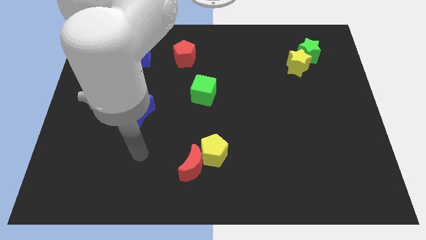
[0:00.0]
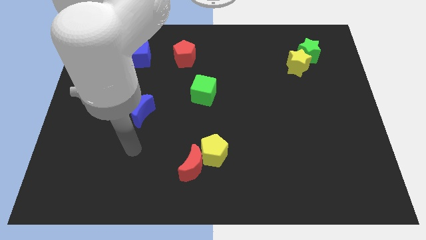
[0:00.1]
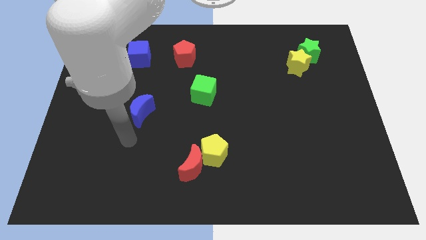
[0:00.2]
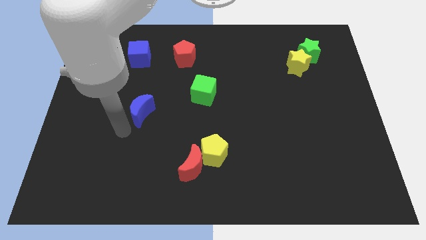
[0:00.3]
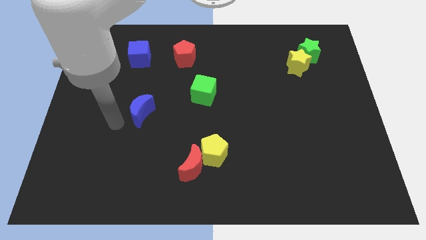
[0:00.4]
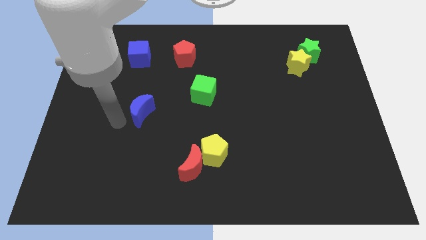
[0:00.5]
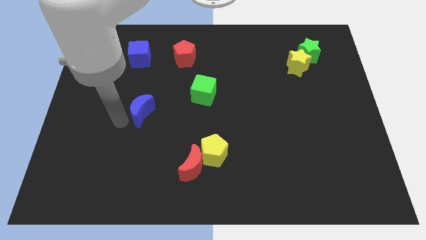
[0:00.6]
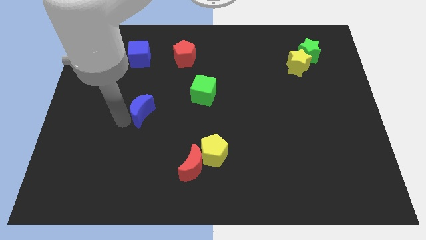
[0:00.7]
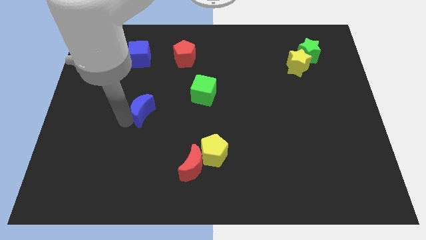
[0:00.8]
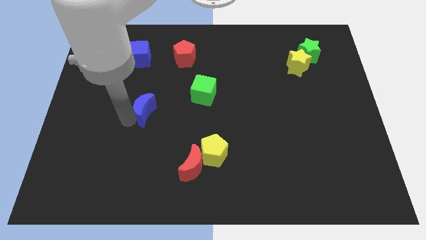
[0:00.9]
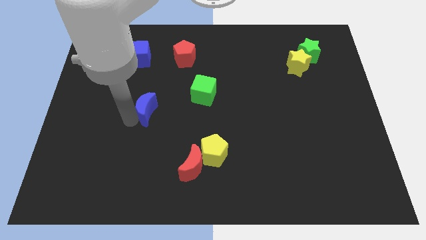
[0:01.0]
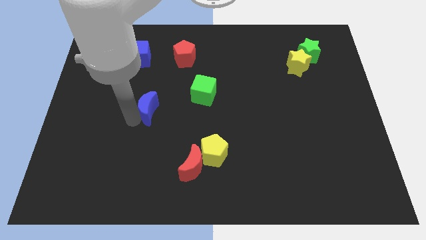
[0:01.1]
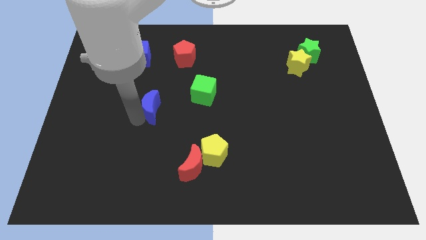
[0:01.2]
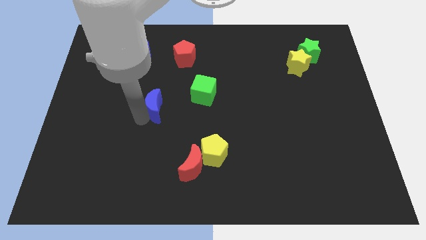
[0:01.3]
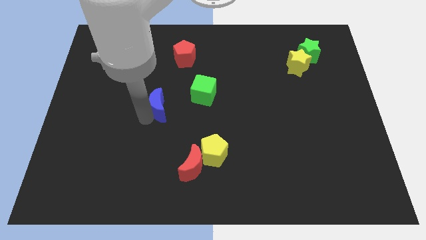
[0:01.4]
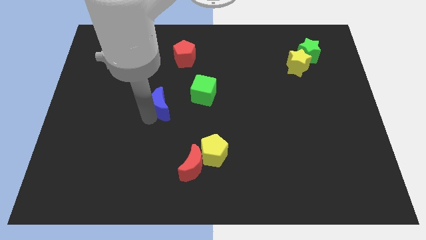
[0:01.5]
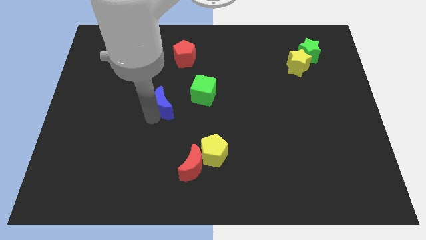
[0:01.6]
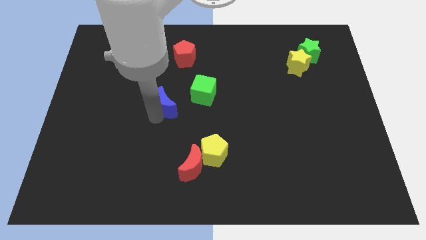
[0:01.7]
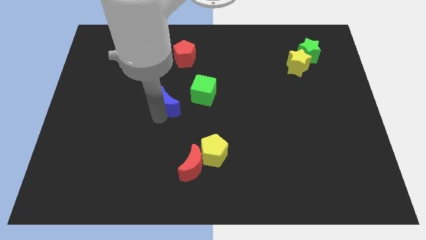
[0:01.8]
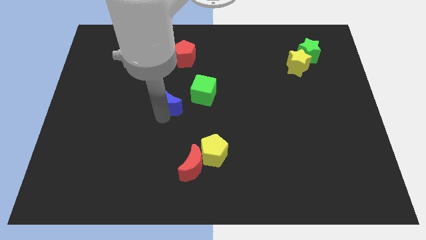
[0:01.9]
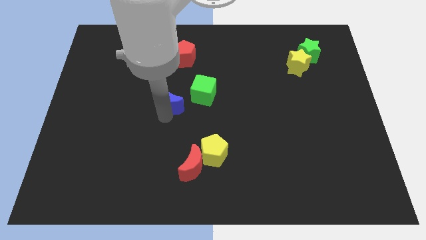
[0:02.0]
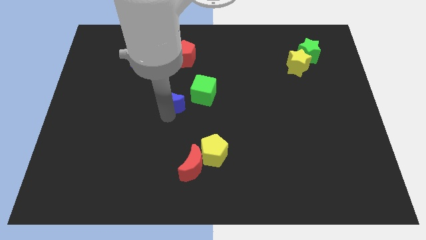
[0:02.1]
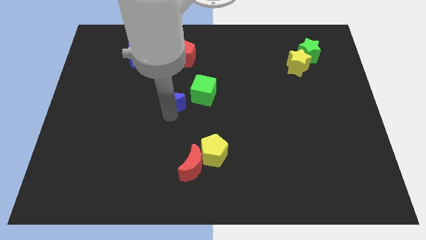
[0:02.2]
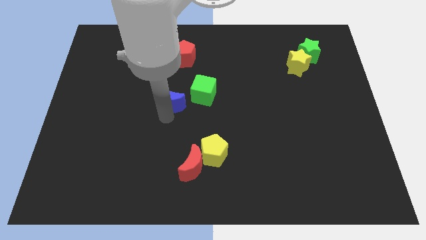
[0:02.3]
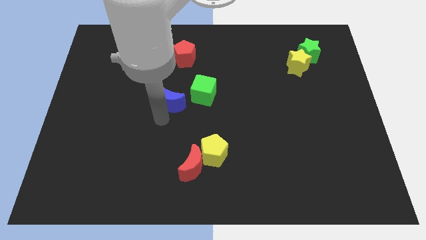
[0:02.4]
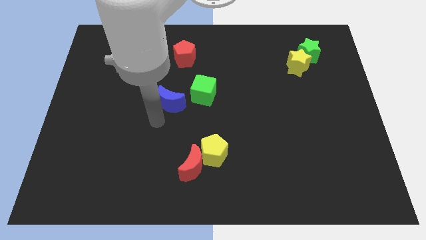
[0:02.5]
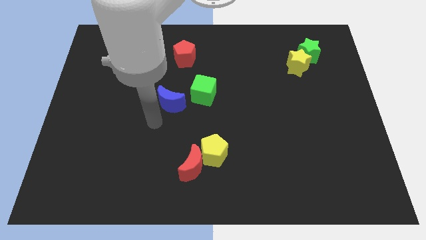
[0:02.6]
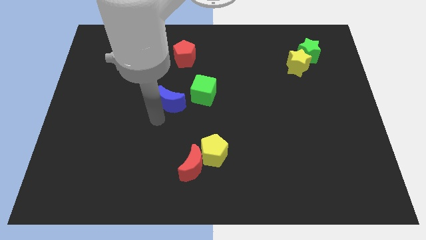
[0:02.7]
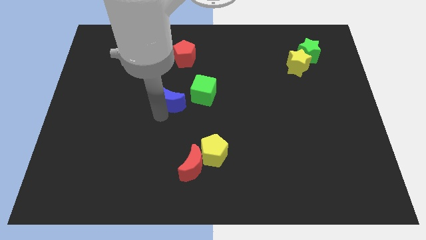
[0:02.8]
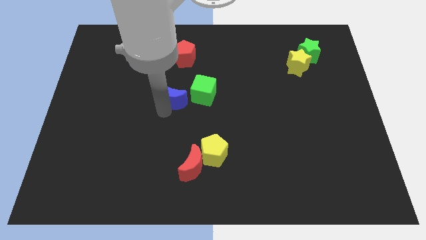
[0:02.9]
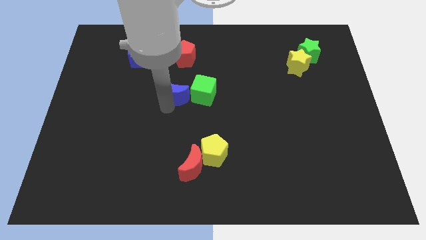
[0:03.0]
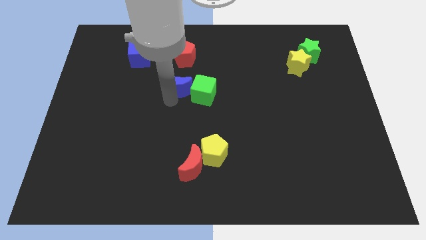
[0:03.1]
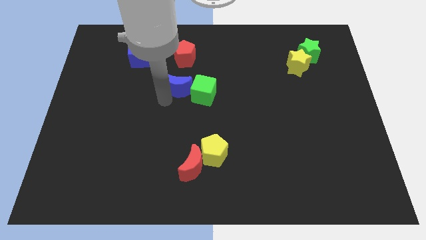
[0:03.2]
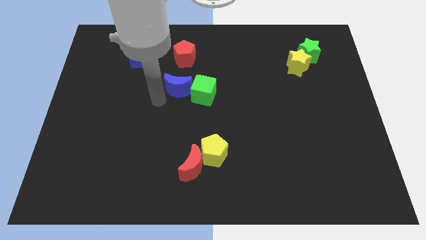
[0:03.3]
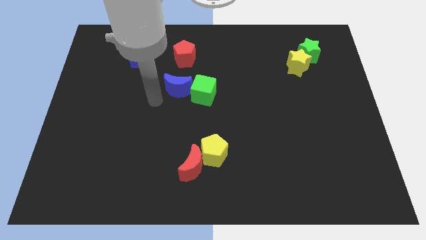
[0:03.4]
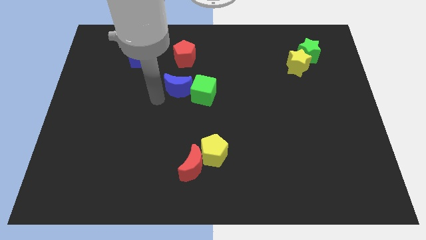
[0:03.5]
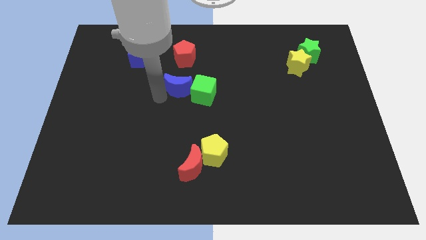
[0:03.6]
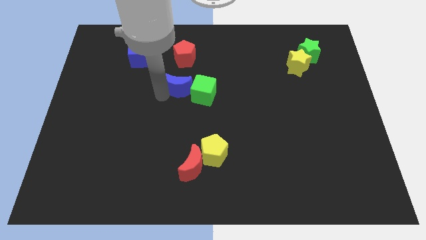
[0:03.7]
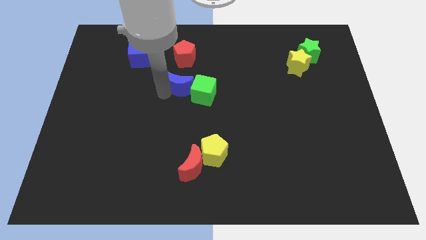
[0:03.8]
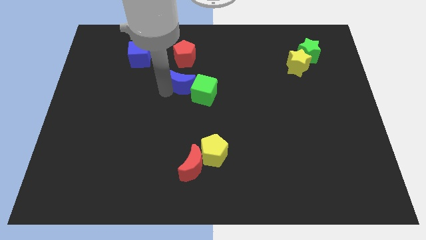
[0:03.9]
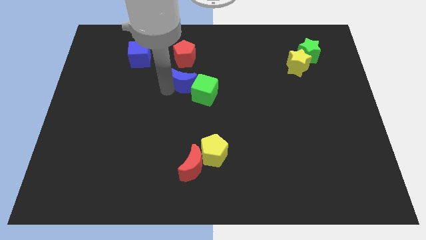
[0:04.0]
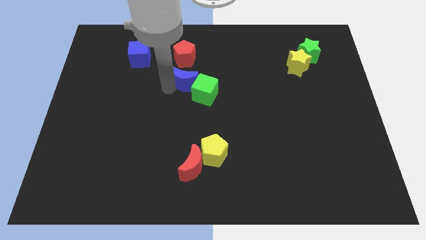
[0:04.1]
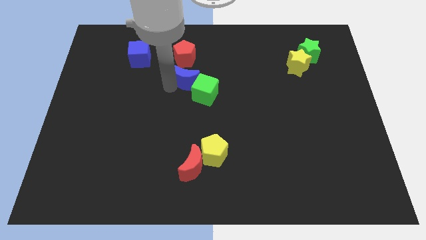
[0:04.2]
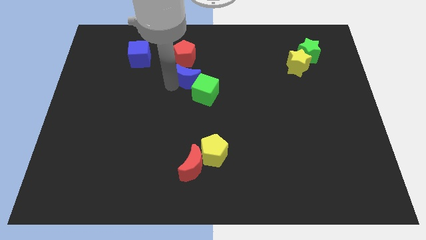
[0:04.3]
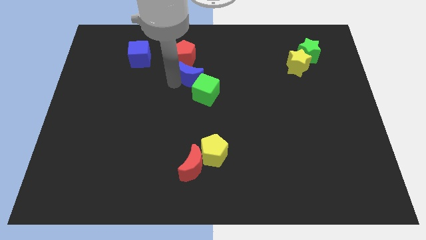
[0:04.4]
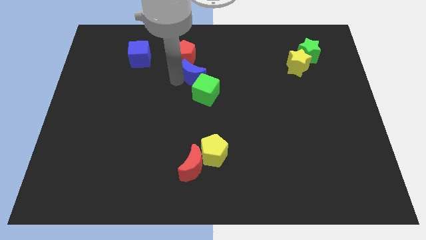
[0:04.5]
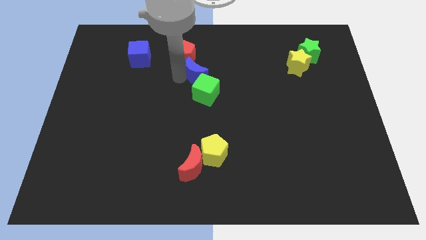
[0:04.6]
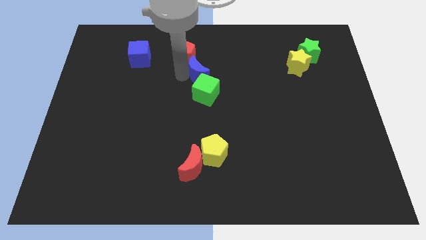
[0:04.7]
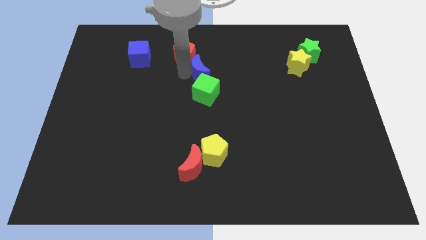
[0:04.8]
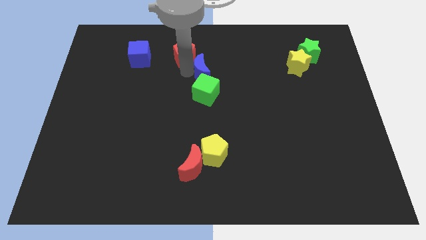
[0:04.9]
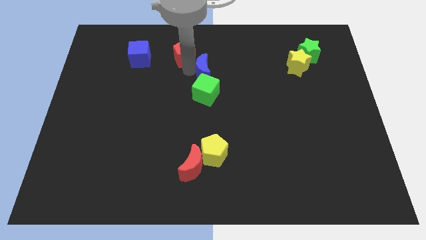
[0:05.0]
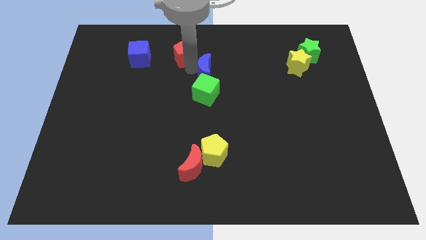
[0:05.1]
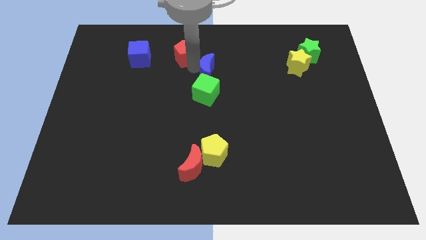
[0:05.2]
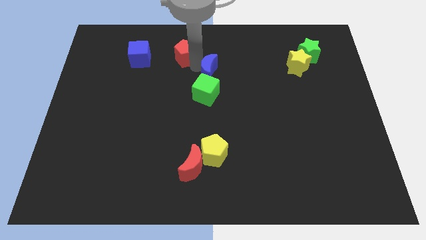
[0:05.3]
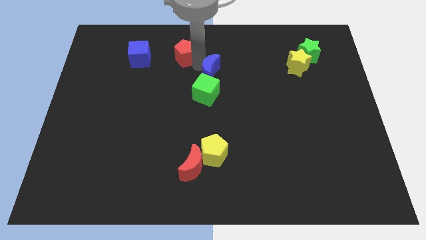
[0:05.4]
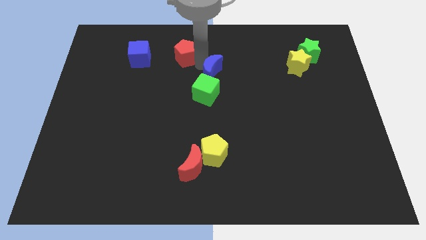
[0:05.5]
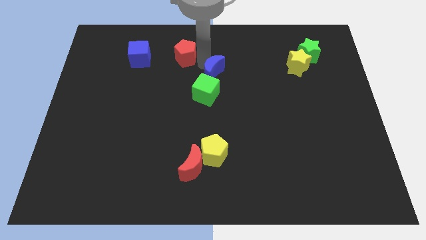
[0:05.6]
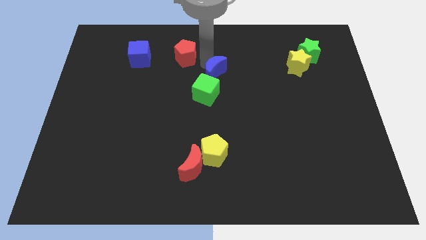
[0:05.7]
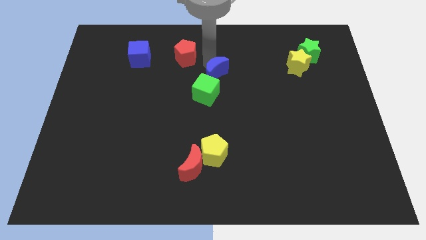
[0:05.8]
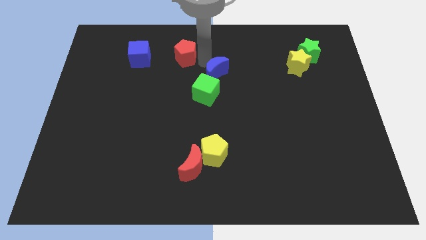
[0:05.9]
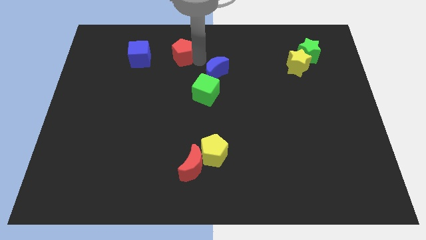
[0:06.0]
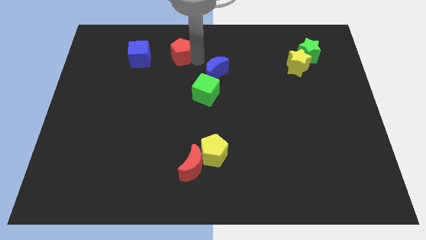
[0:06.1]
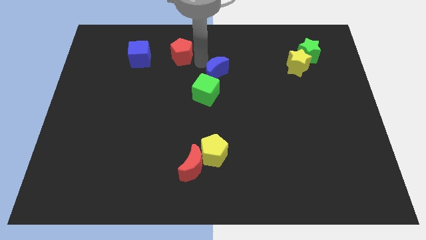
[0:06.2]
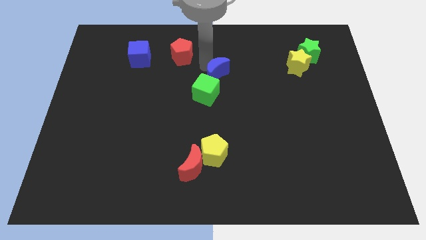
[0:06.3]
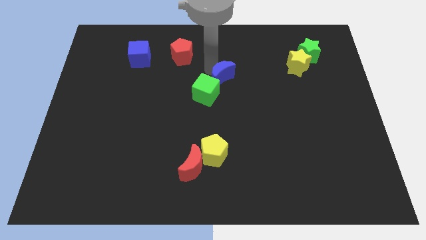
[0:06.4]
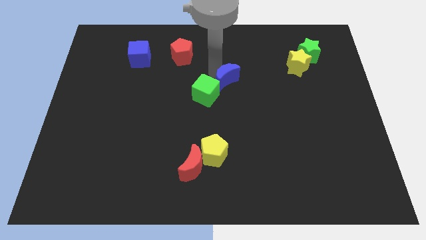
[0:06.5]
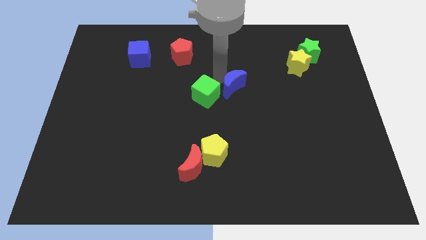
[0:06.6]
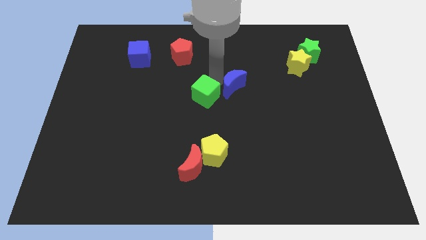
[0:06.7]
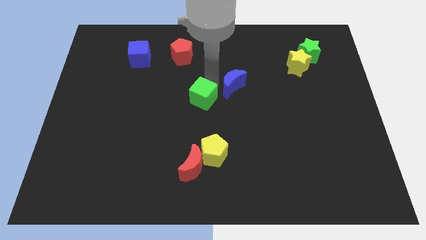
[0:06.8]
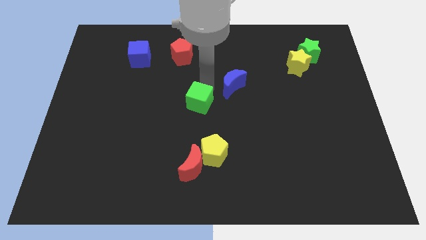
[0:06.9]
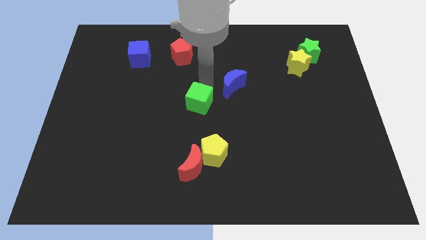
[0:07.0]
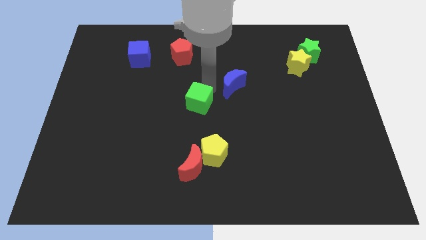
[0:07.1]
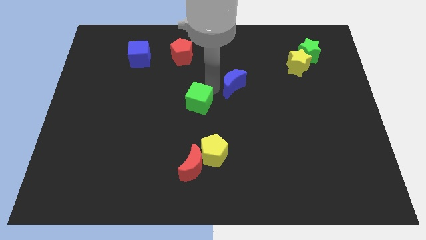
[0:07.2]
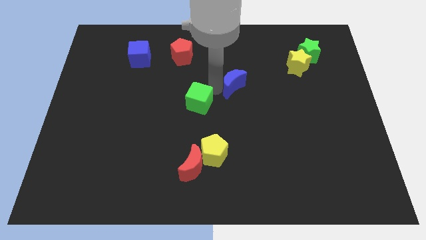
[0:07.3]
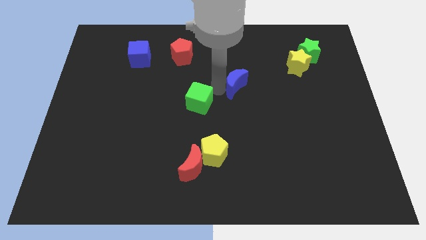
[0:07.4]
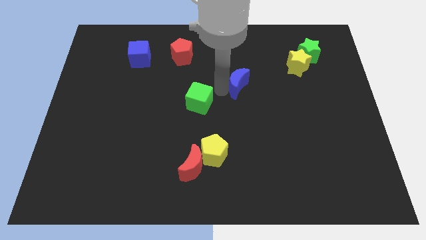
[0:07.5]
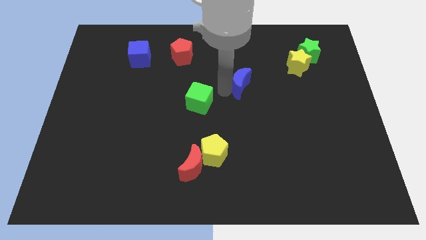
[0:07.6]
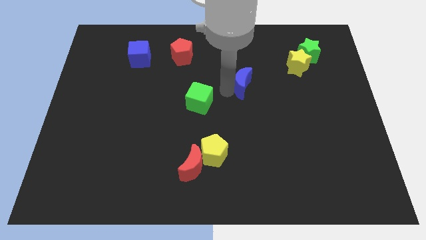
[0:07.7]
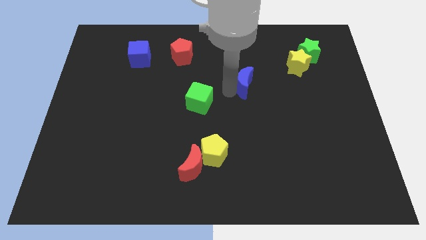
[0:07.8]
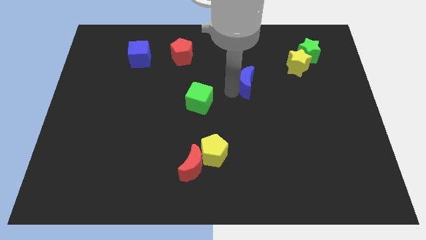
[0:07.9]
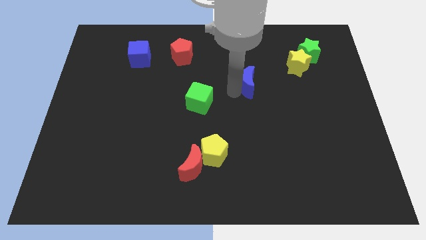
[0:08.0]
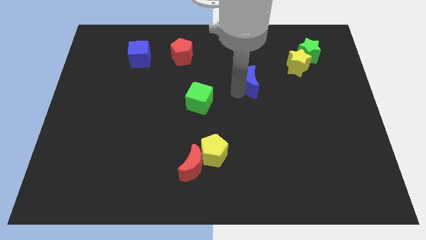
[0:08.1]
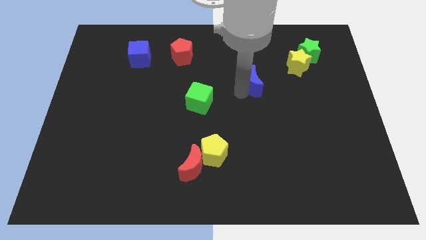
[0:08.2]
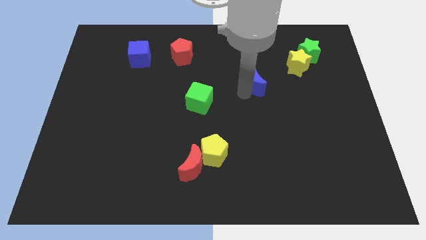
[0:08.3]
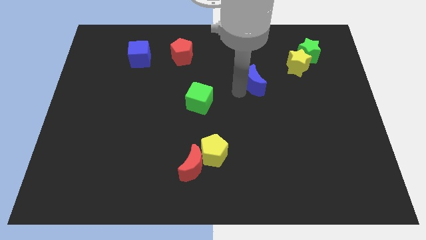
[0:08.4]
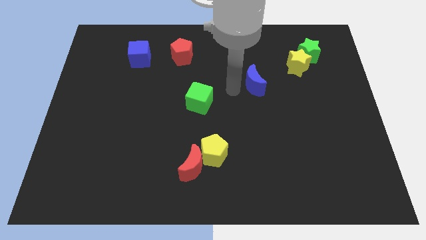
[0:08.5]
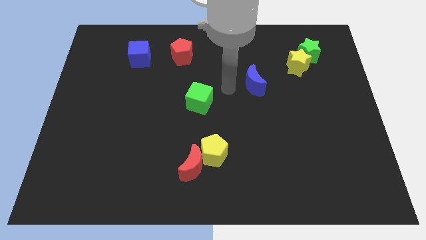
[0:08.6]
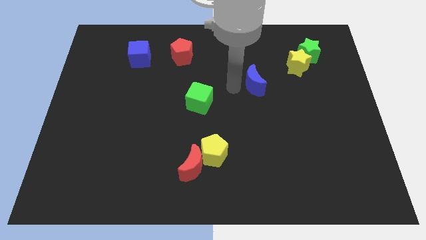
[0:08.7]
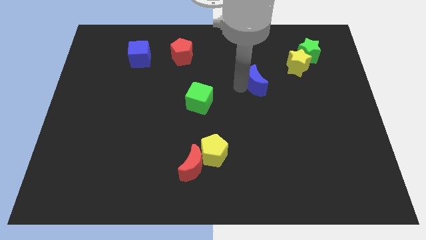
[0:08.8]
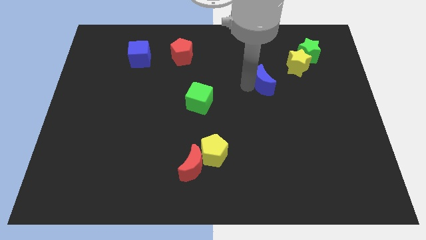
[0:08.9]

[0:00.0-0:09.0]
move the blue moon diagonally down and to the left of the yellow star
